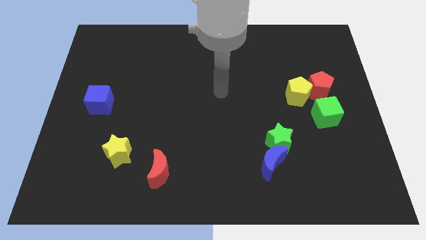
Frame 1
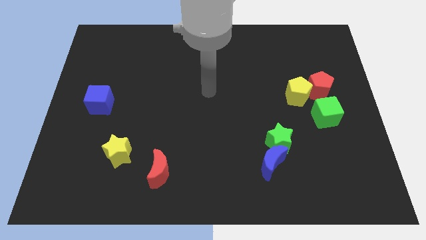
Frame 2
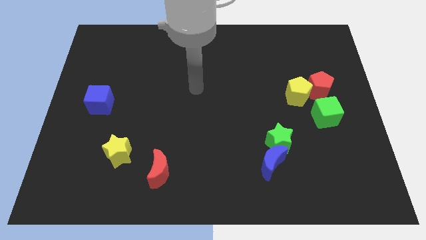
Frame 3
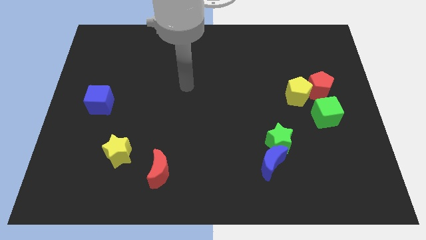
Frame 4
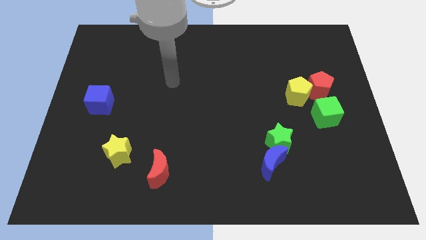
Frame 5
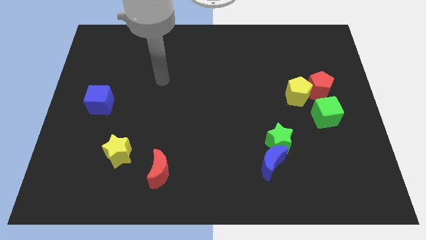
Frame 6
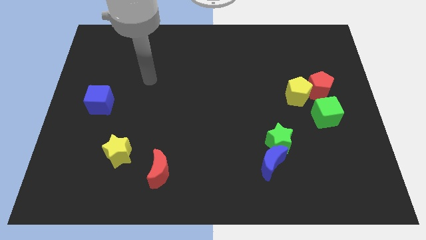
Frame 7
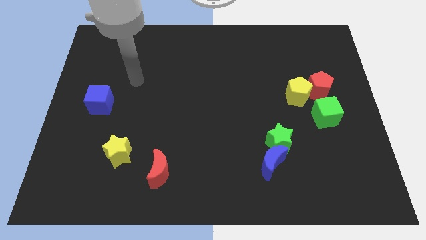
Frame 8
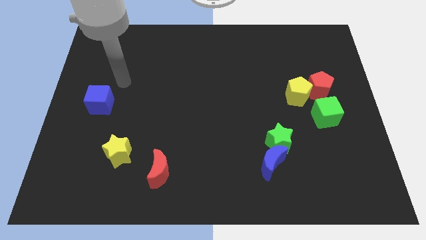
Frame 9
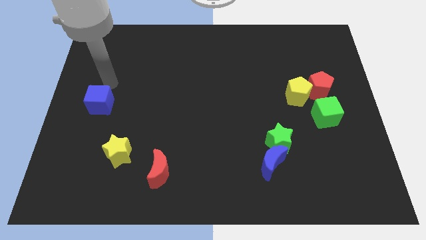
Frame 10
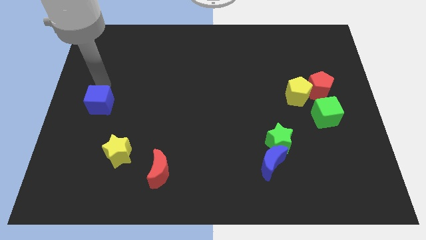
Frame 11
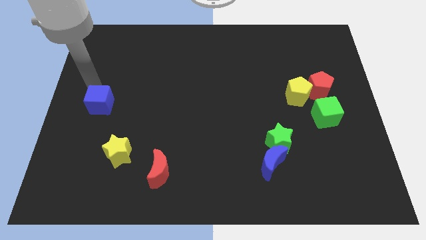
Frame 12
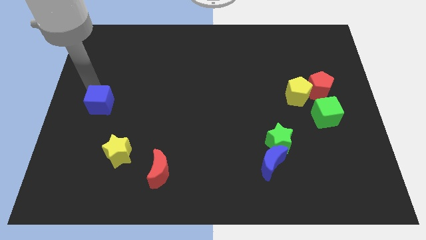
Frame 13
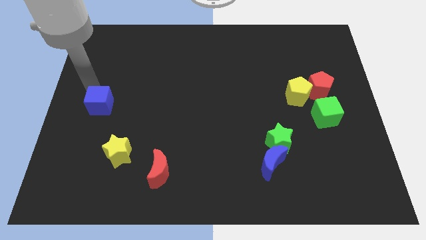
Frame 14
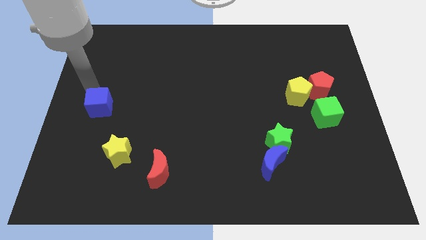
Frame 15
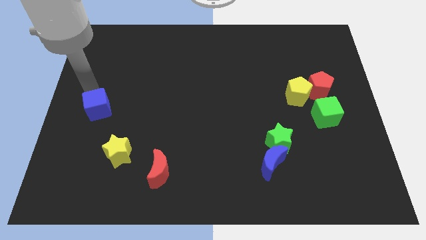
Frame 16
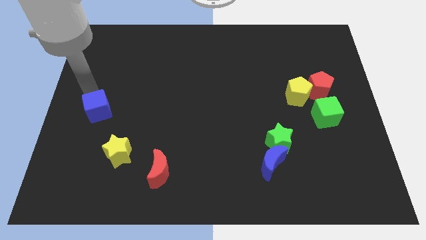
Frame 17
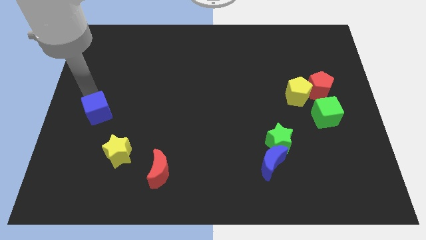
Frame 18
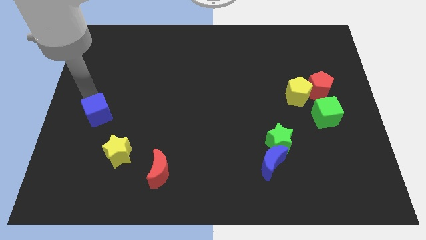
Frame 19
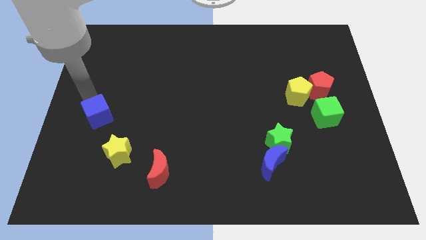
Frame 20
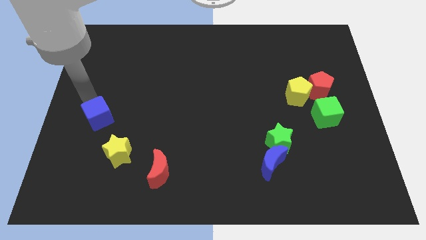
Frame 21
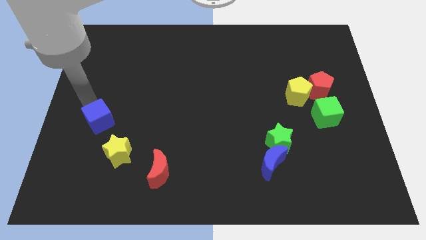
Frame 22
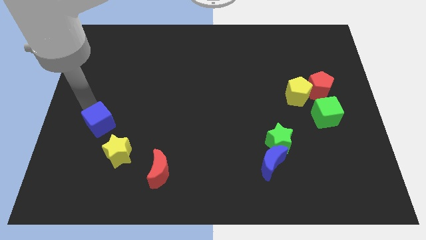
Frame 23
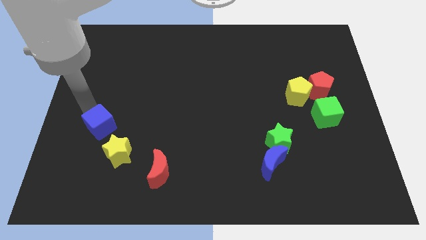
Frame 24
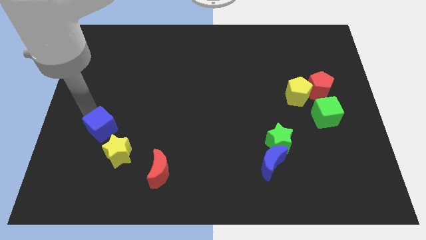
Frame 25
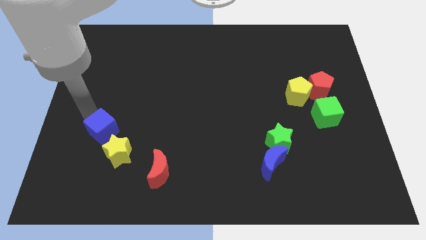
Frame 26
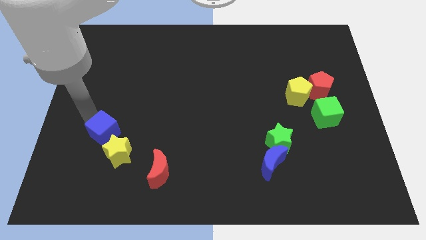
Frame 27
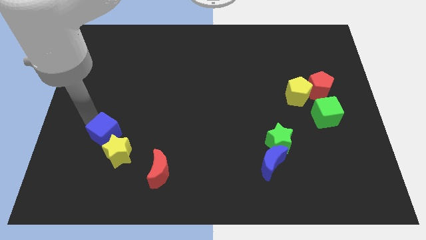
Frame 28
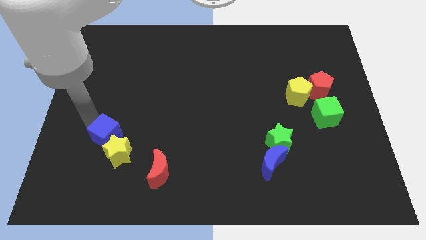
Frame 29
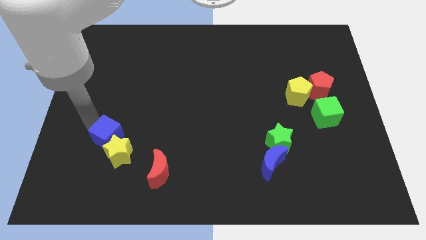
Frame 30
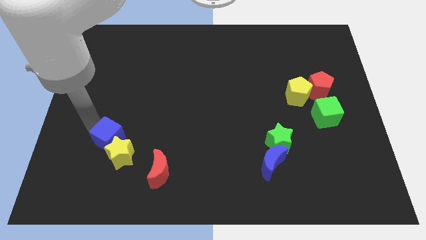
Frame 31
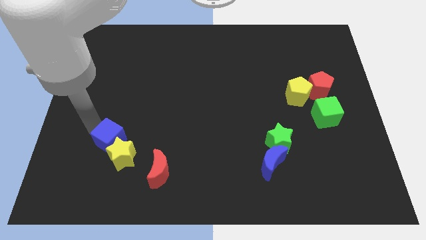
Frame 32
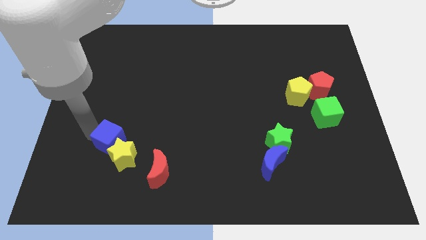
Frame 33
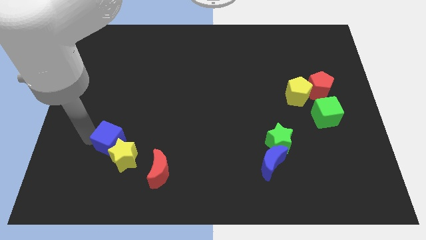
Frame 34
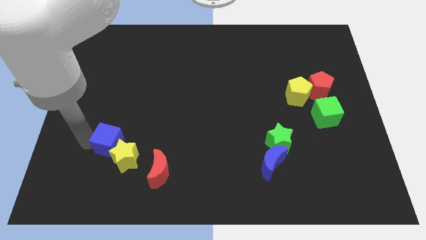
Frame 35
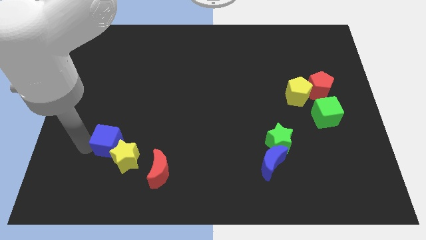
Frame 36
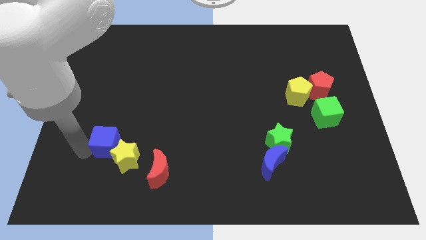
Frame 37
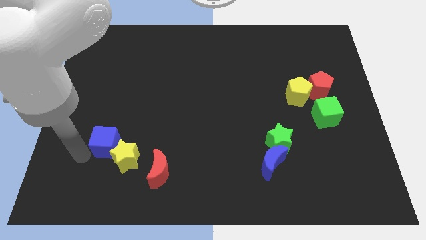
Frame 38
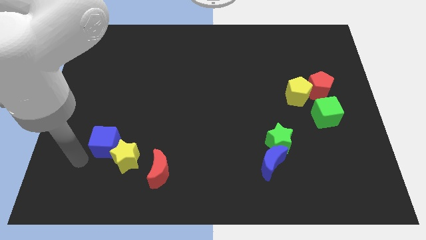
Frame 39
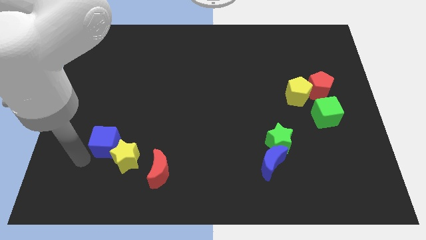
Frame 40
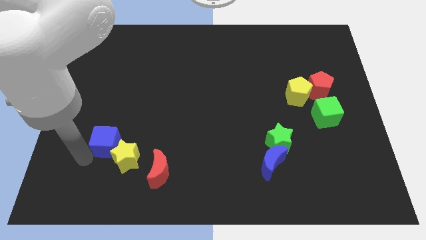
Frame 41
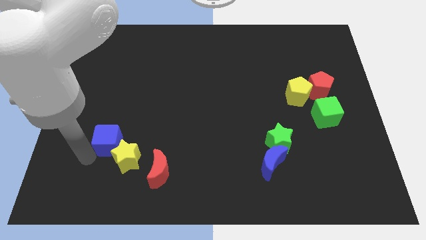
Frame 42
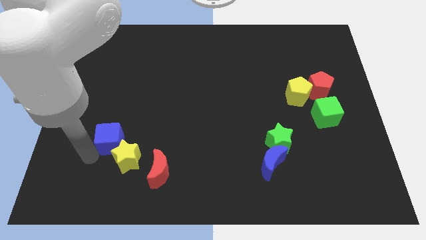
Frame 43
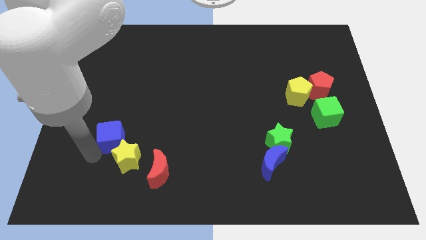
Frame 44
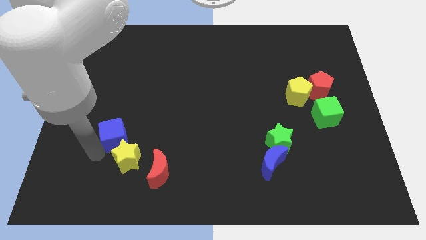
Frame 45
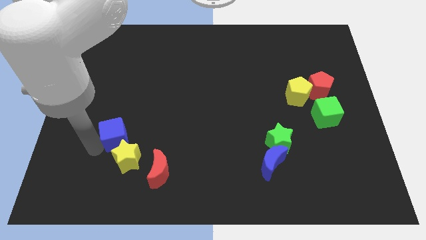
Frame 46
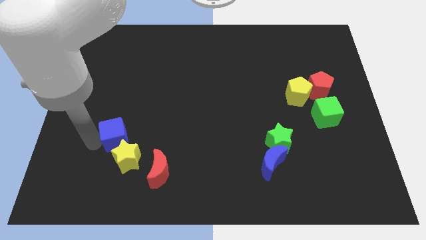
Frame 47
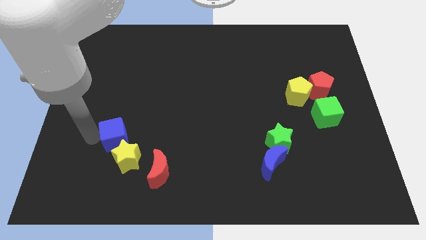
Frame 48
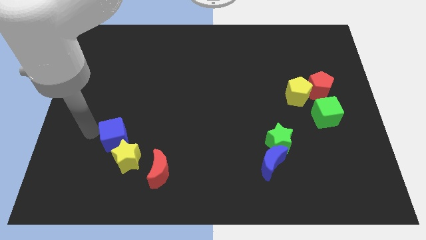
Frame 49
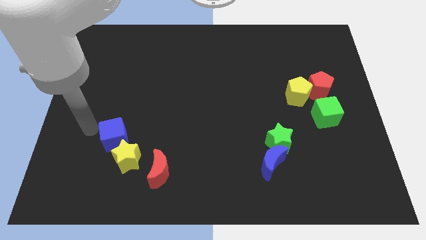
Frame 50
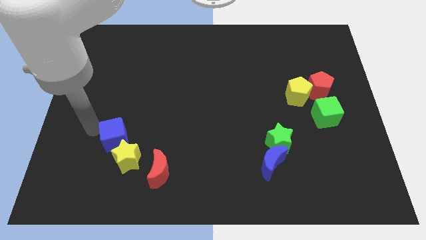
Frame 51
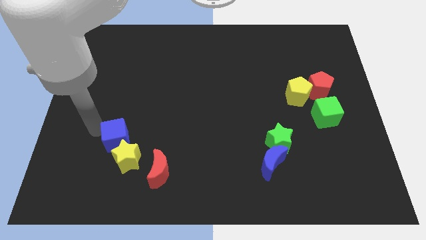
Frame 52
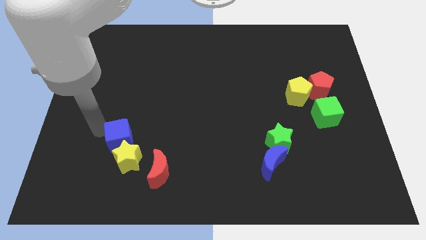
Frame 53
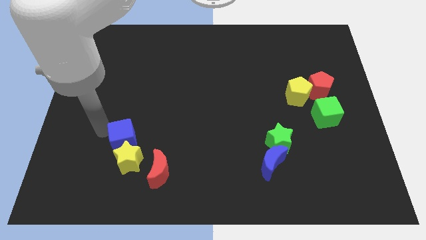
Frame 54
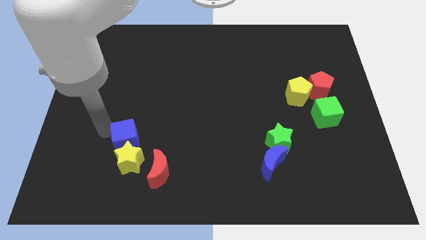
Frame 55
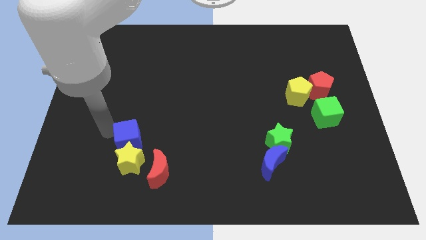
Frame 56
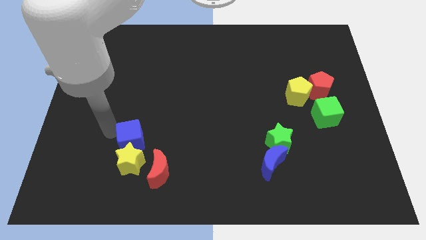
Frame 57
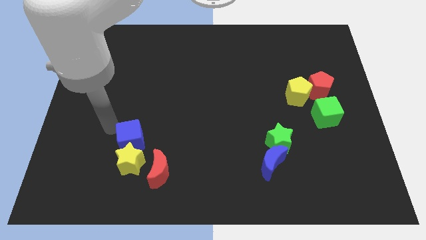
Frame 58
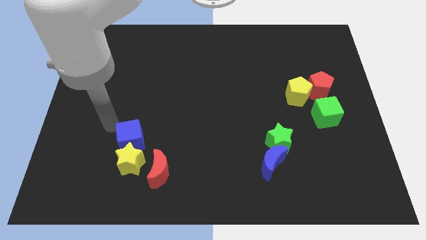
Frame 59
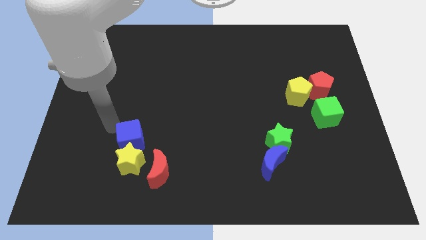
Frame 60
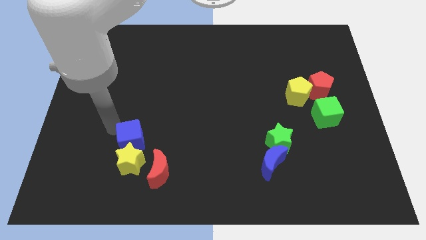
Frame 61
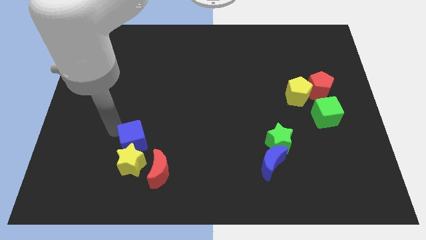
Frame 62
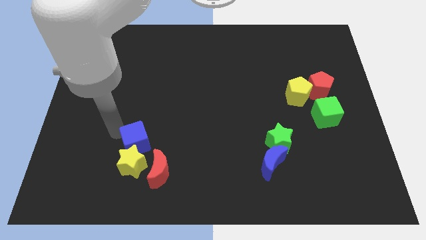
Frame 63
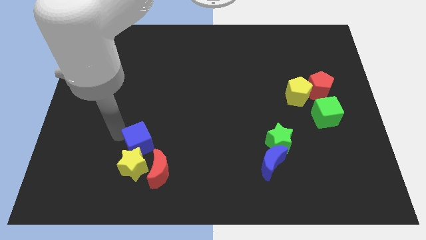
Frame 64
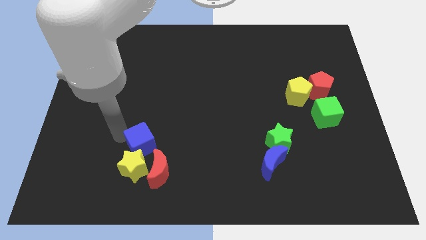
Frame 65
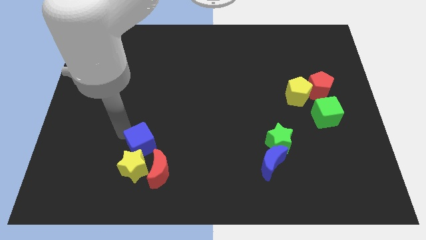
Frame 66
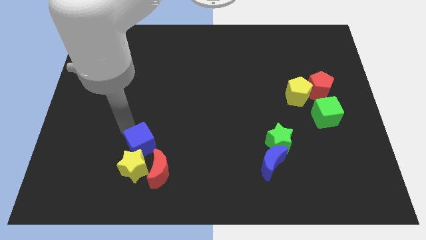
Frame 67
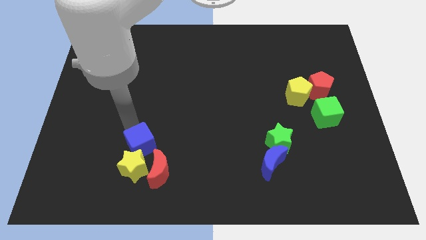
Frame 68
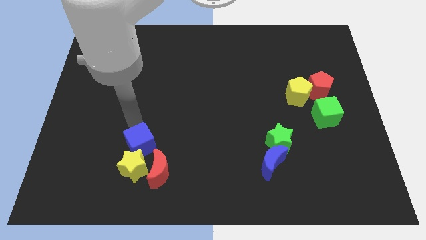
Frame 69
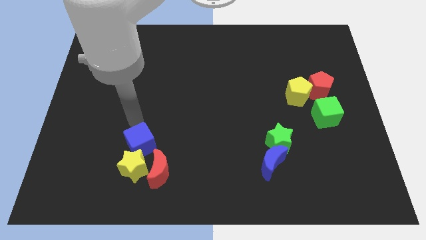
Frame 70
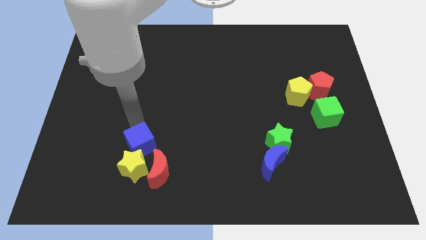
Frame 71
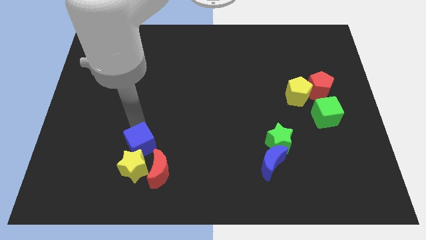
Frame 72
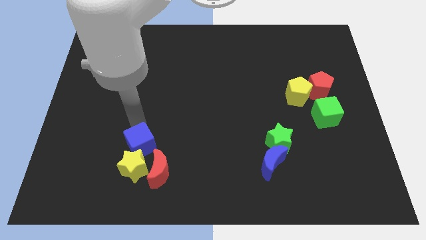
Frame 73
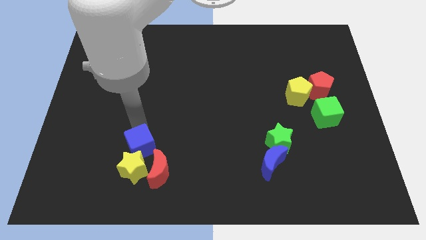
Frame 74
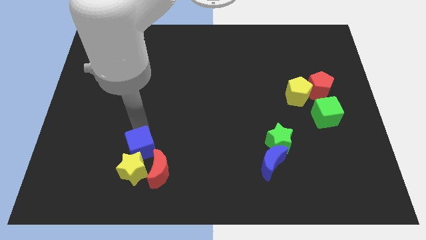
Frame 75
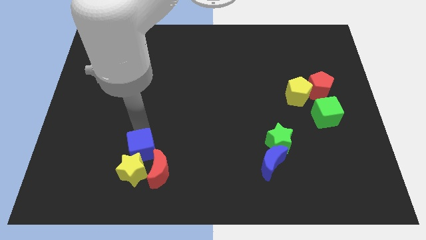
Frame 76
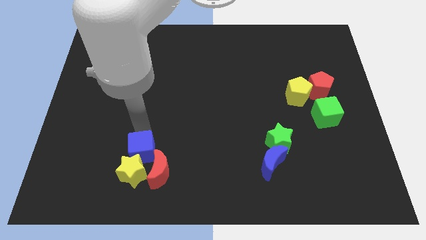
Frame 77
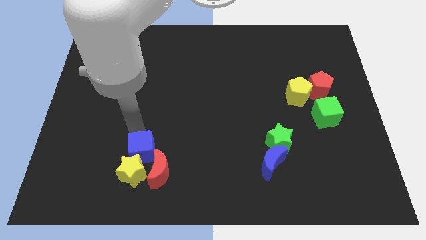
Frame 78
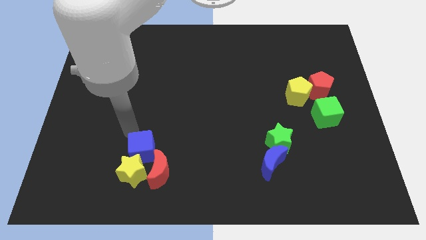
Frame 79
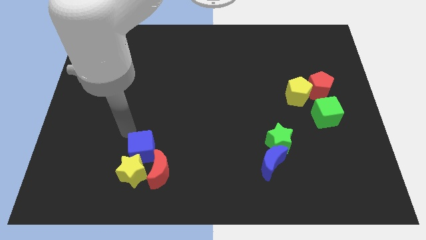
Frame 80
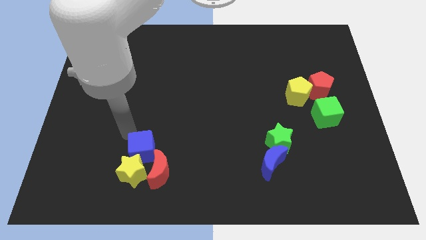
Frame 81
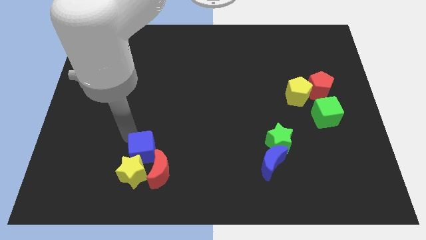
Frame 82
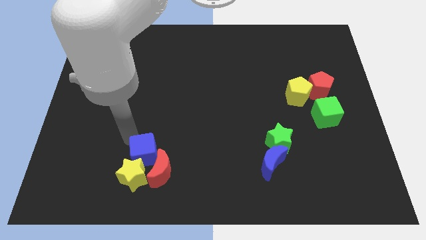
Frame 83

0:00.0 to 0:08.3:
slide the blue cube towards the red moon
